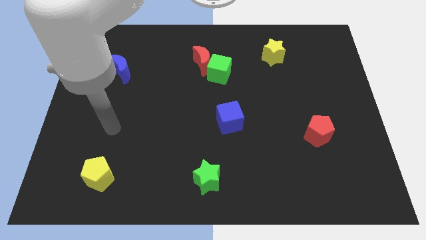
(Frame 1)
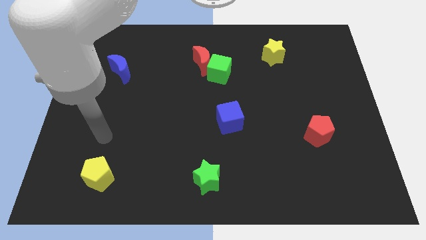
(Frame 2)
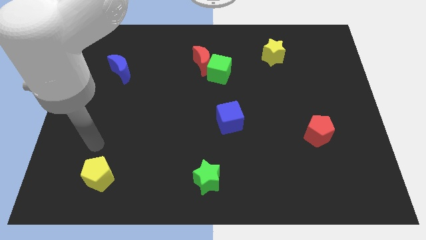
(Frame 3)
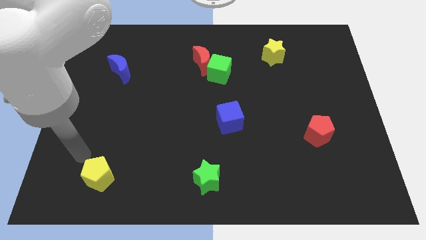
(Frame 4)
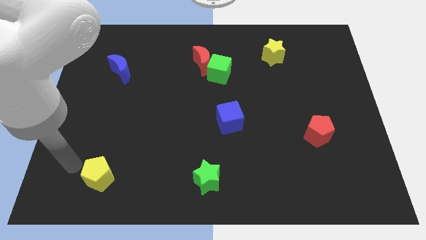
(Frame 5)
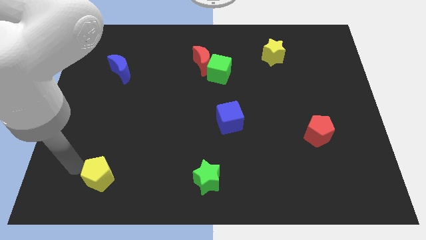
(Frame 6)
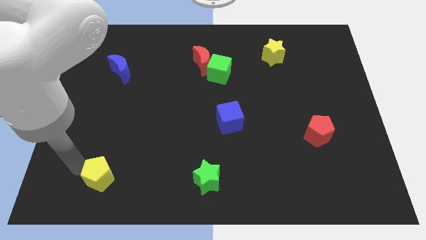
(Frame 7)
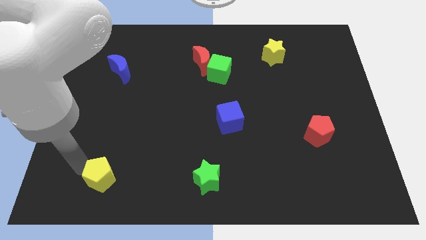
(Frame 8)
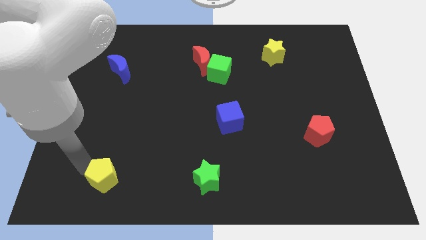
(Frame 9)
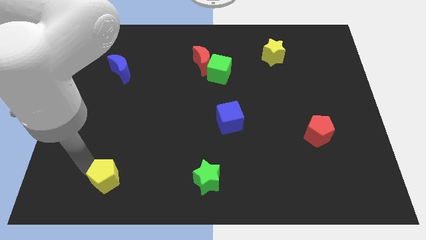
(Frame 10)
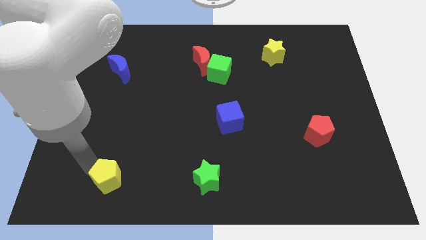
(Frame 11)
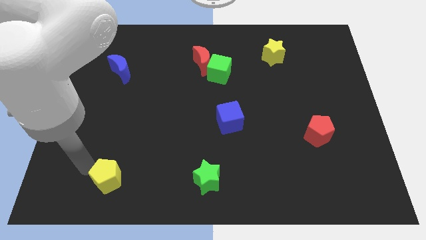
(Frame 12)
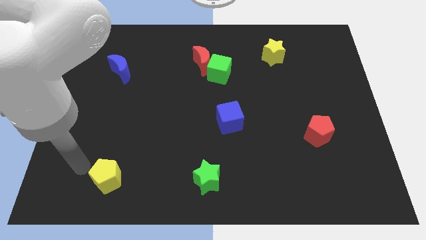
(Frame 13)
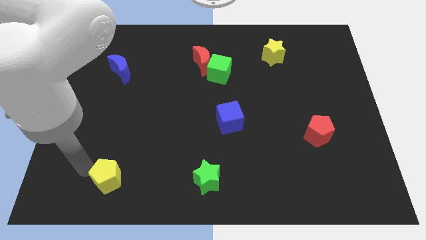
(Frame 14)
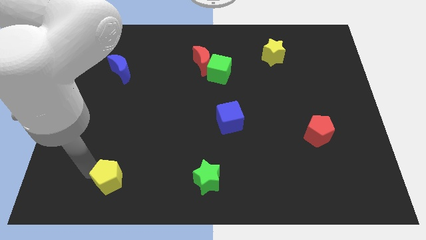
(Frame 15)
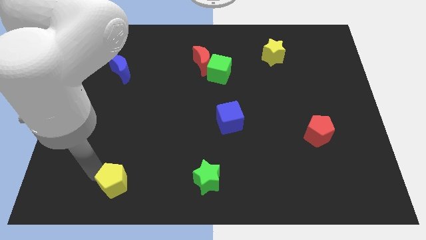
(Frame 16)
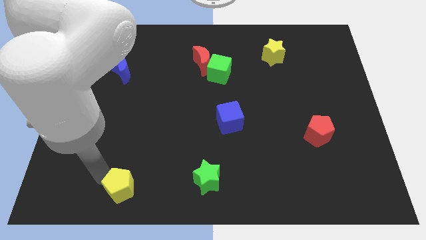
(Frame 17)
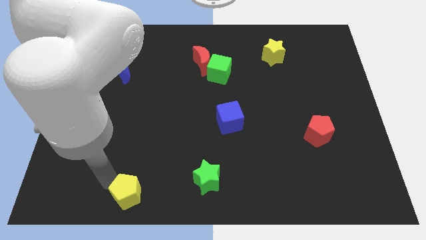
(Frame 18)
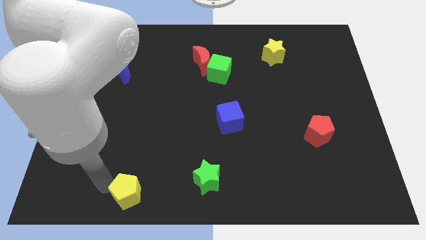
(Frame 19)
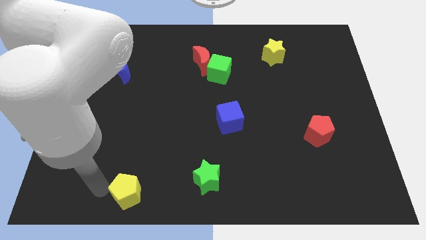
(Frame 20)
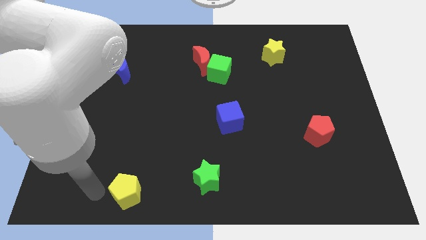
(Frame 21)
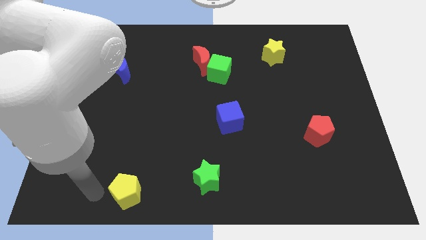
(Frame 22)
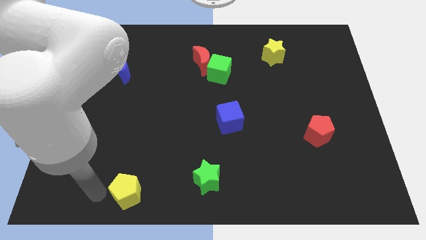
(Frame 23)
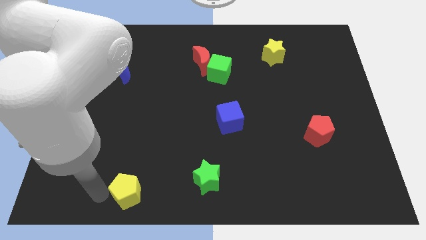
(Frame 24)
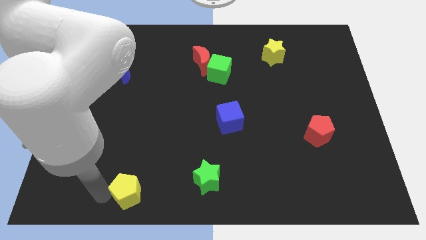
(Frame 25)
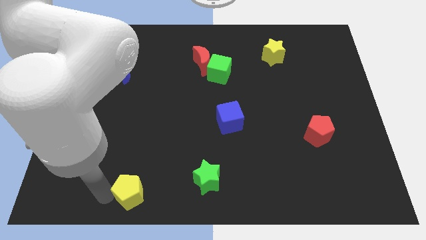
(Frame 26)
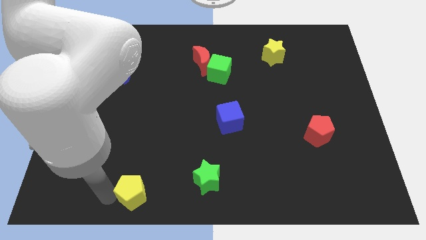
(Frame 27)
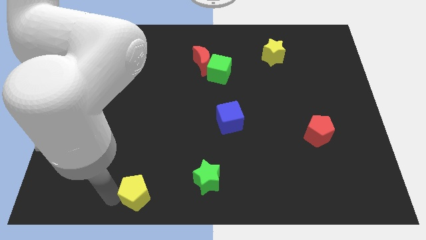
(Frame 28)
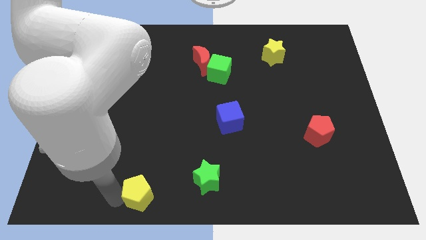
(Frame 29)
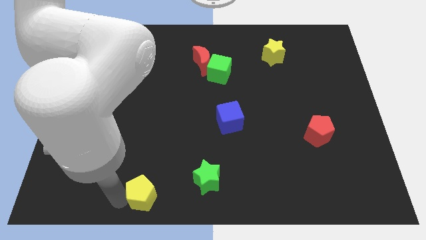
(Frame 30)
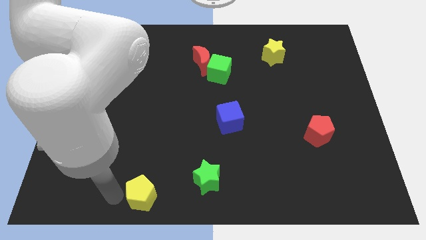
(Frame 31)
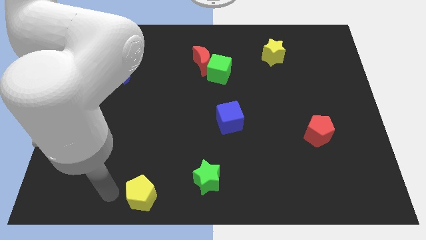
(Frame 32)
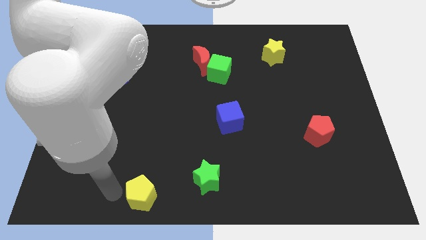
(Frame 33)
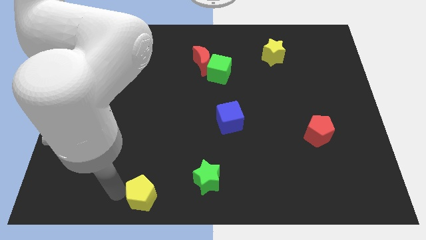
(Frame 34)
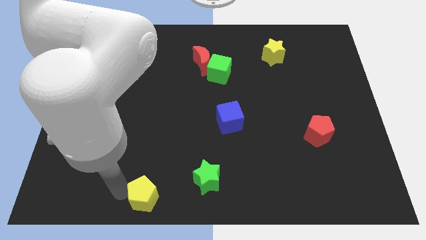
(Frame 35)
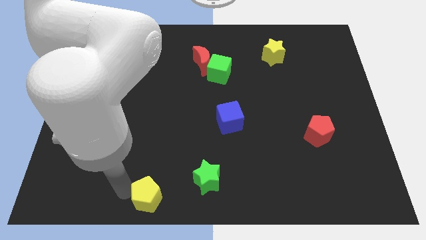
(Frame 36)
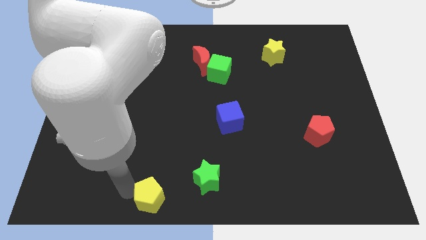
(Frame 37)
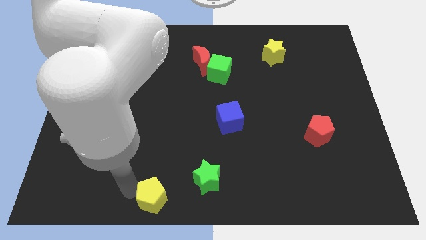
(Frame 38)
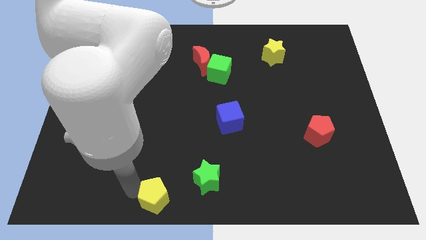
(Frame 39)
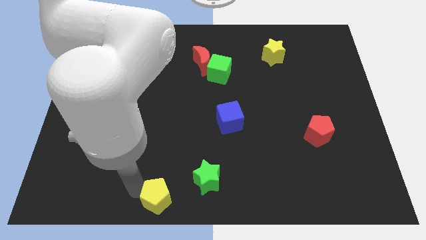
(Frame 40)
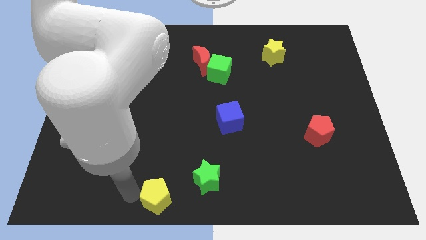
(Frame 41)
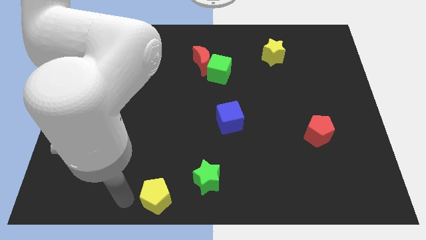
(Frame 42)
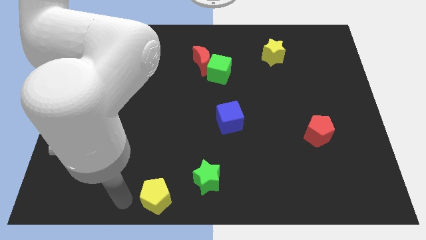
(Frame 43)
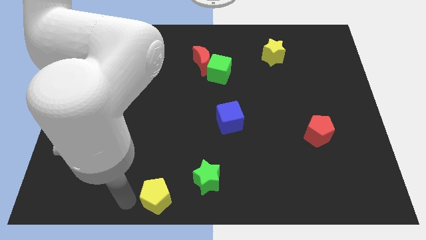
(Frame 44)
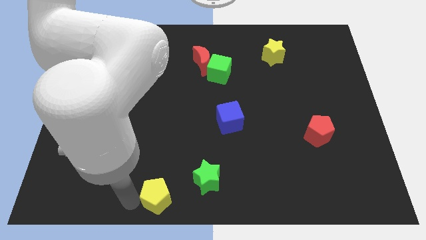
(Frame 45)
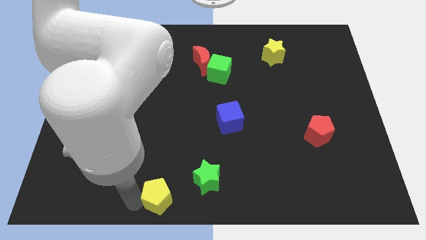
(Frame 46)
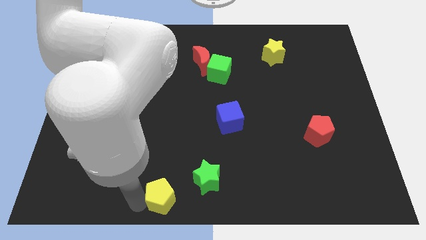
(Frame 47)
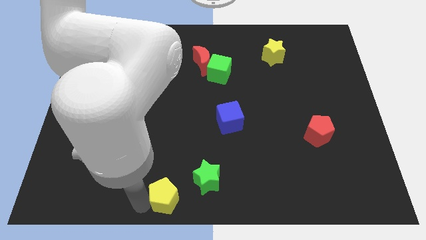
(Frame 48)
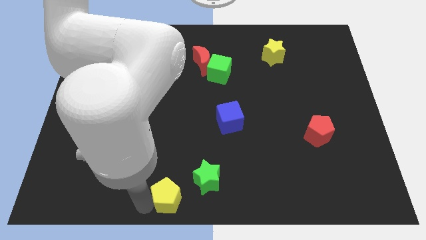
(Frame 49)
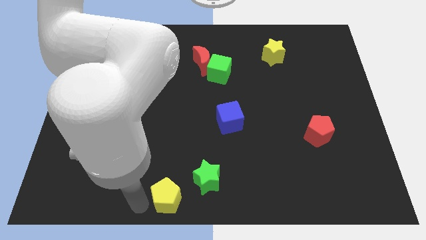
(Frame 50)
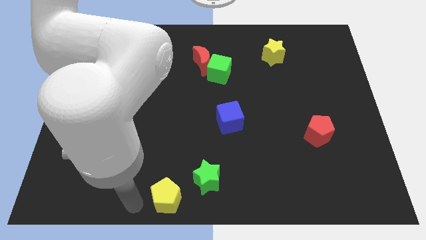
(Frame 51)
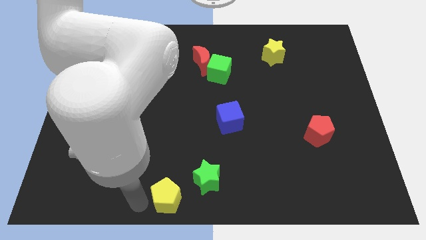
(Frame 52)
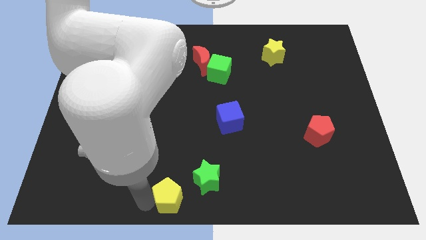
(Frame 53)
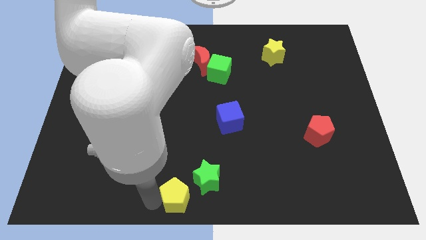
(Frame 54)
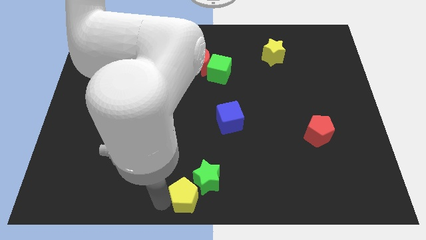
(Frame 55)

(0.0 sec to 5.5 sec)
slide the yellow pentagon to the green star

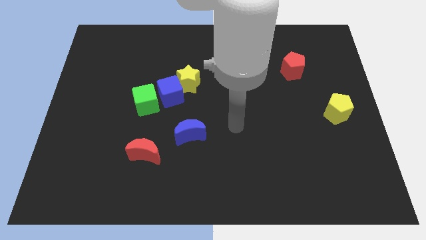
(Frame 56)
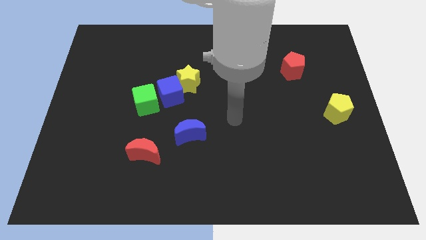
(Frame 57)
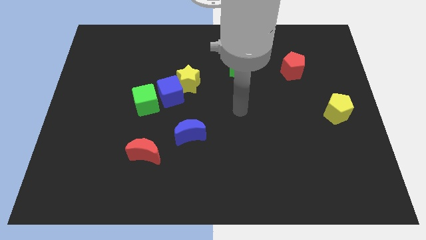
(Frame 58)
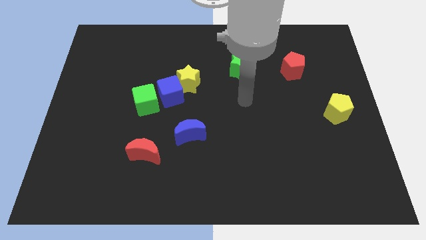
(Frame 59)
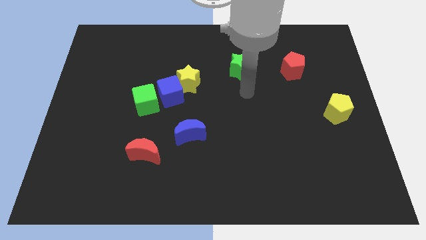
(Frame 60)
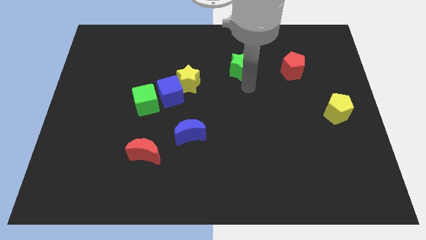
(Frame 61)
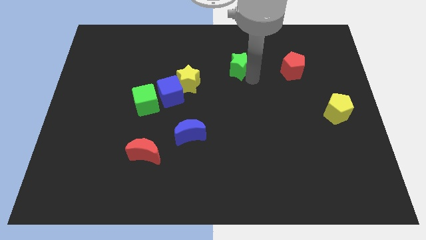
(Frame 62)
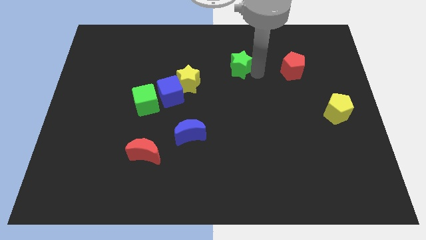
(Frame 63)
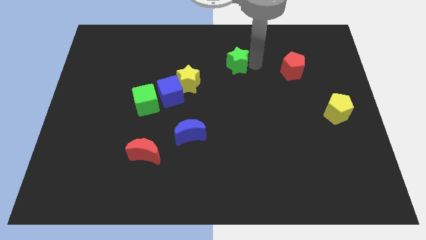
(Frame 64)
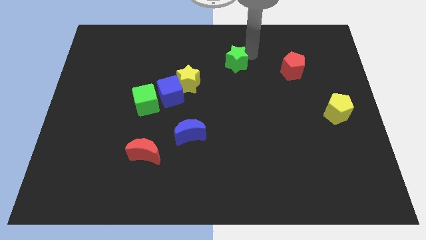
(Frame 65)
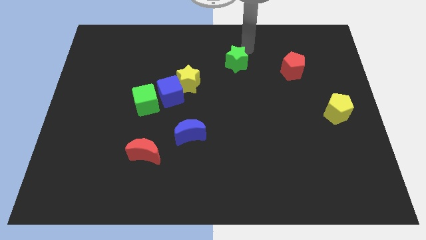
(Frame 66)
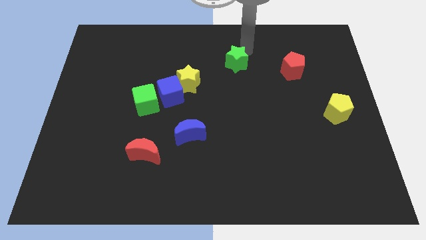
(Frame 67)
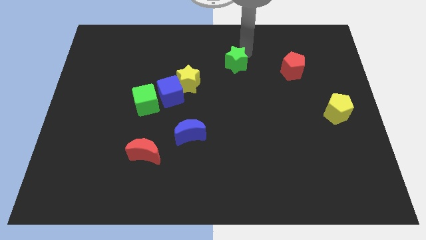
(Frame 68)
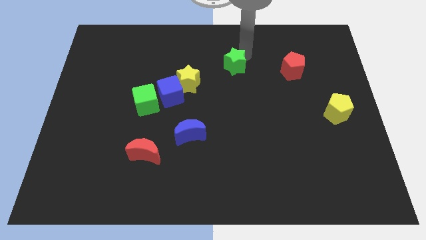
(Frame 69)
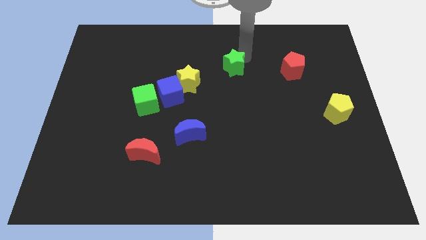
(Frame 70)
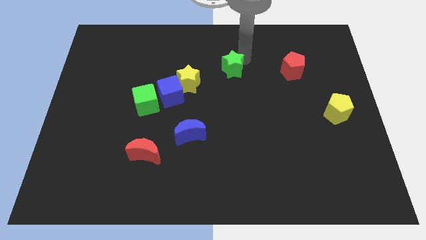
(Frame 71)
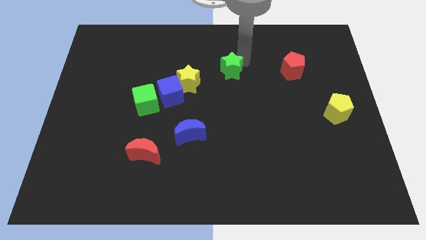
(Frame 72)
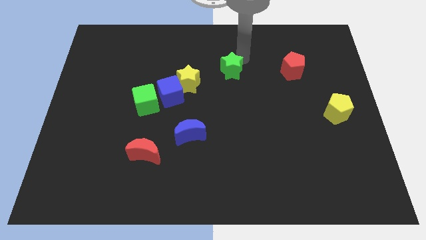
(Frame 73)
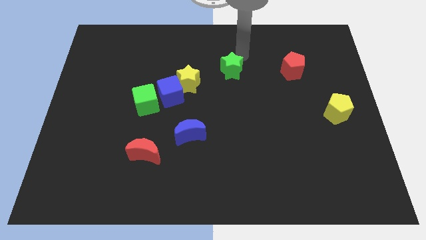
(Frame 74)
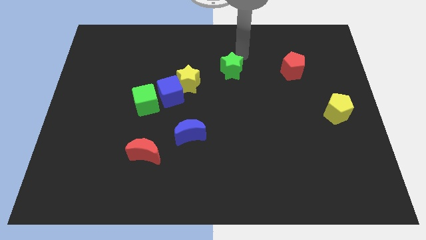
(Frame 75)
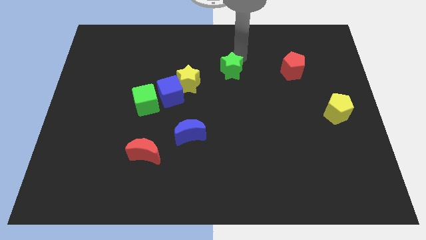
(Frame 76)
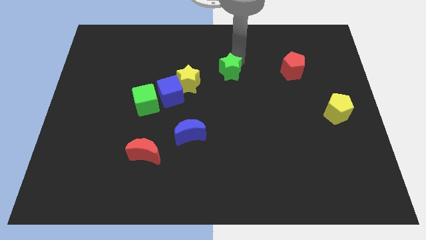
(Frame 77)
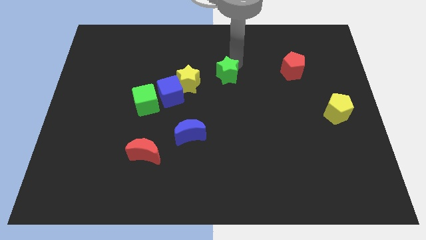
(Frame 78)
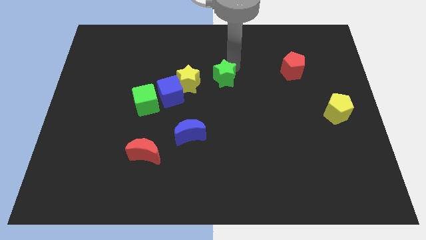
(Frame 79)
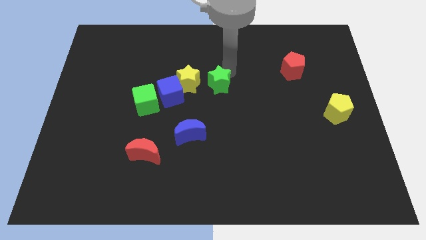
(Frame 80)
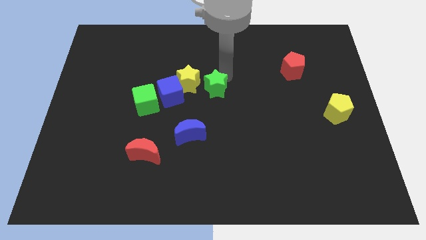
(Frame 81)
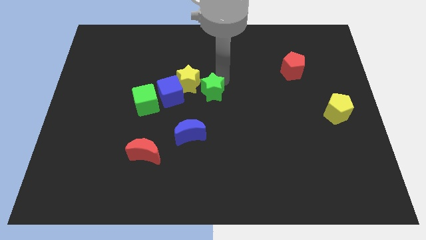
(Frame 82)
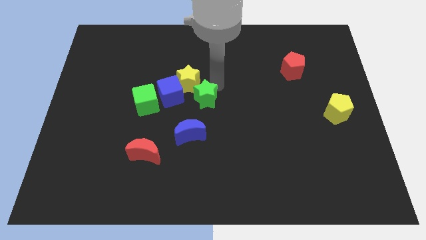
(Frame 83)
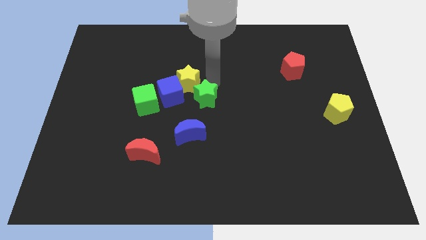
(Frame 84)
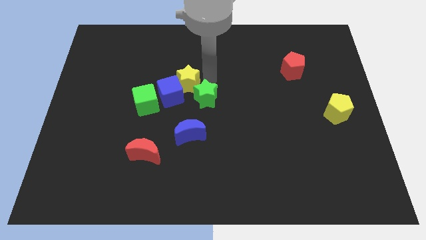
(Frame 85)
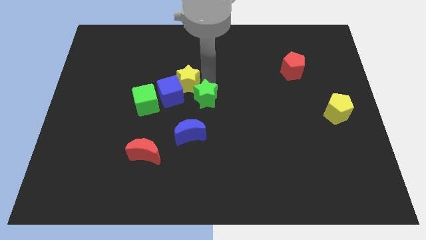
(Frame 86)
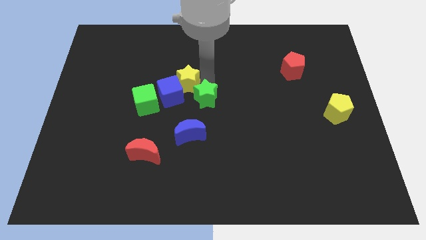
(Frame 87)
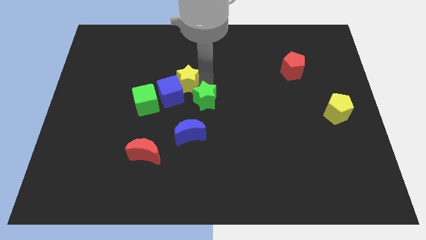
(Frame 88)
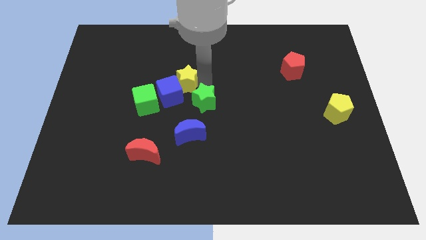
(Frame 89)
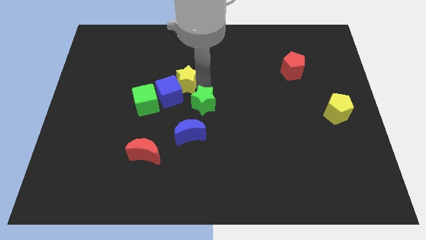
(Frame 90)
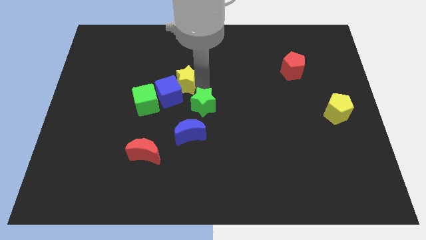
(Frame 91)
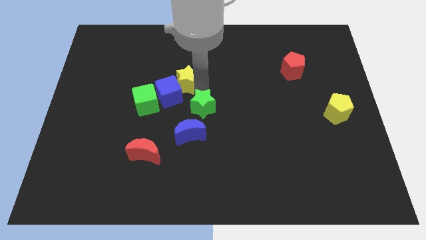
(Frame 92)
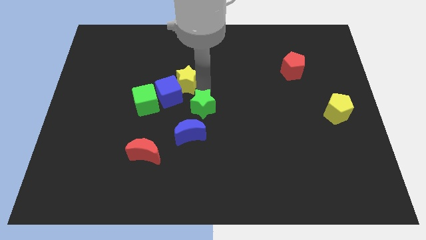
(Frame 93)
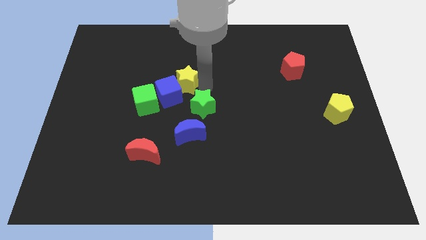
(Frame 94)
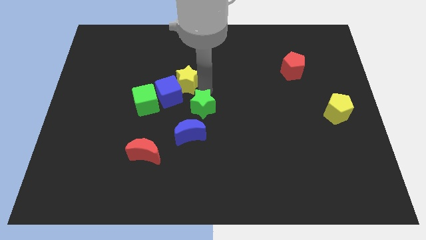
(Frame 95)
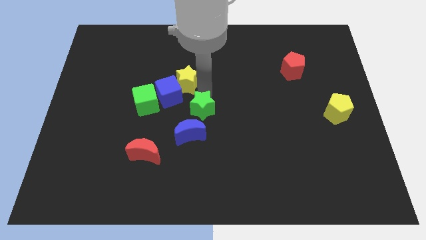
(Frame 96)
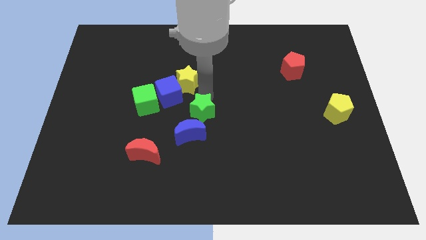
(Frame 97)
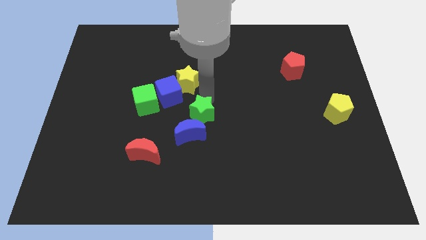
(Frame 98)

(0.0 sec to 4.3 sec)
push the green star close to the blue moon
